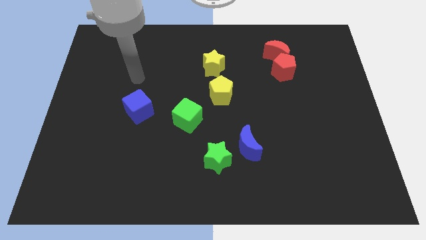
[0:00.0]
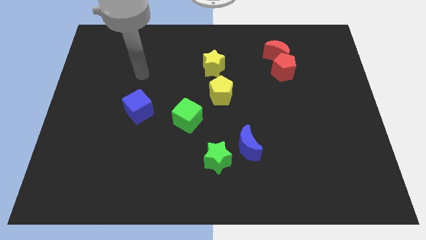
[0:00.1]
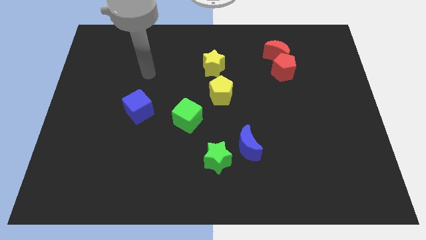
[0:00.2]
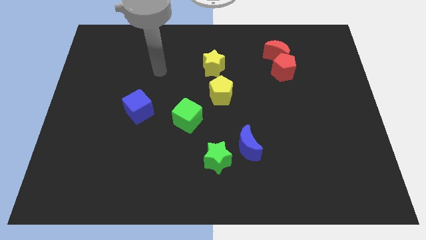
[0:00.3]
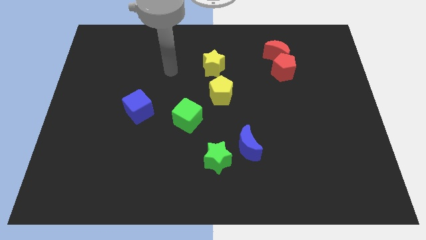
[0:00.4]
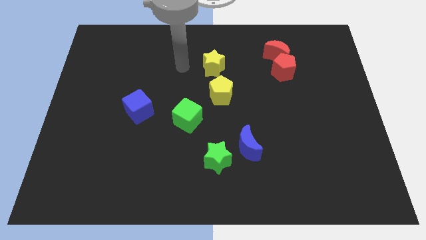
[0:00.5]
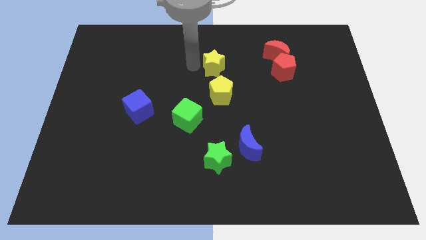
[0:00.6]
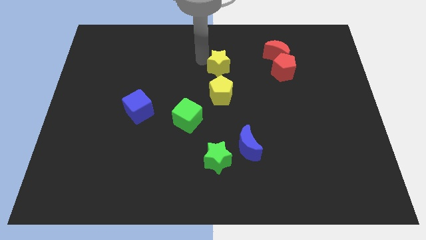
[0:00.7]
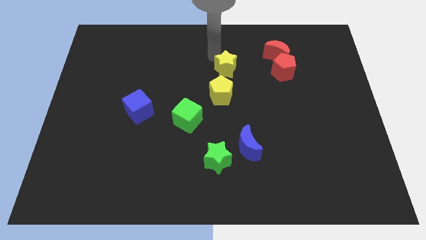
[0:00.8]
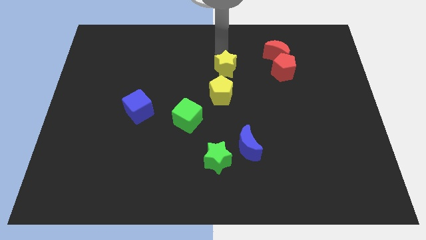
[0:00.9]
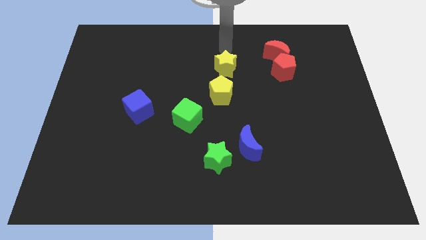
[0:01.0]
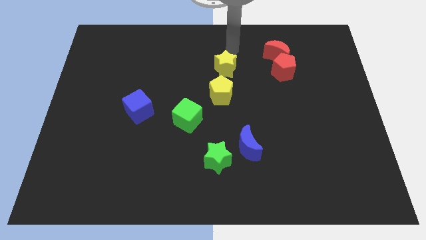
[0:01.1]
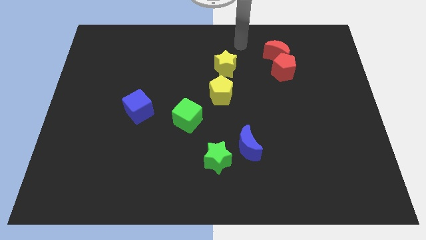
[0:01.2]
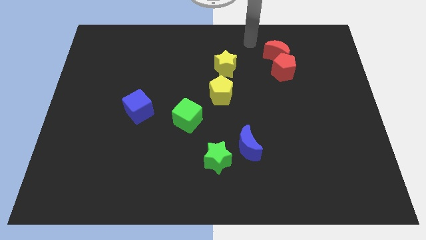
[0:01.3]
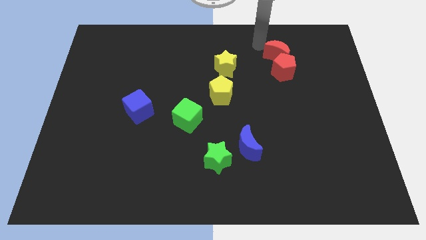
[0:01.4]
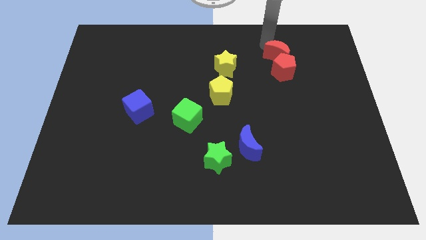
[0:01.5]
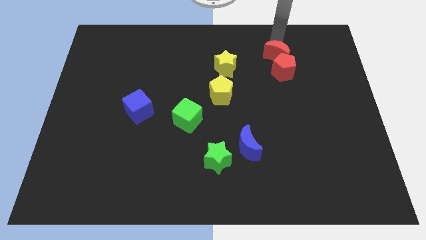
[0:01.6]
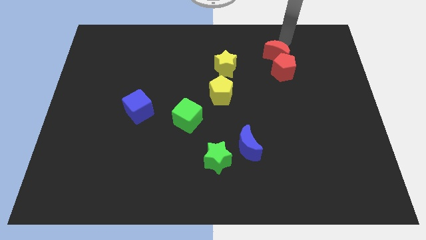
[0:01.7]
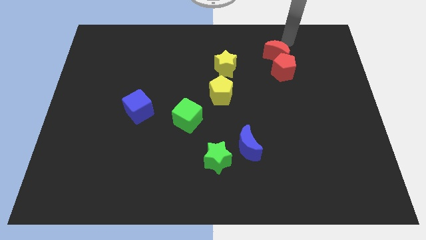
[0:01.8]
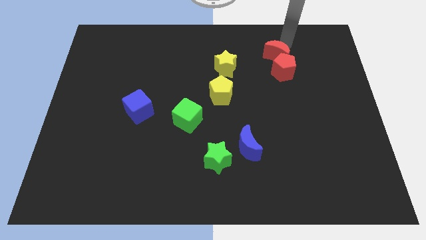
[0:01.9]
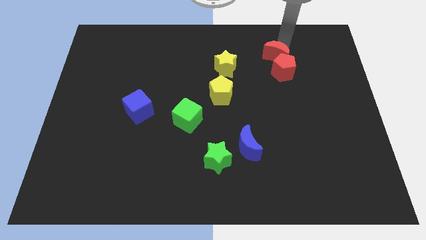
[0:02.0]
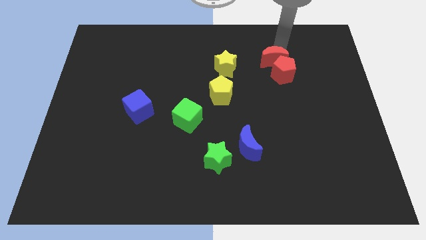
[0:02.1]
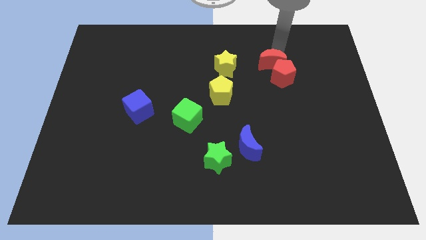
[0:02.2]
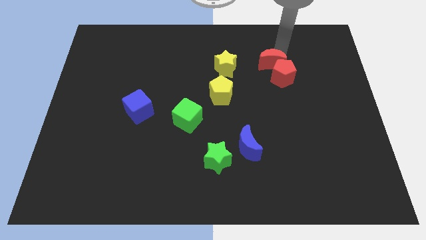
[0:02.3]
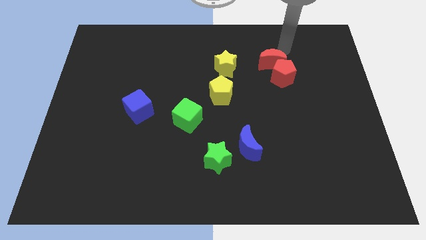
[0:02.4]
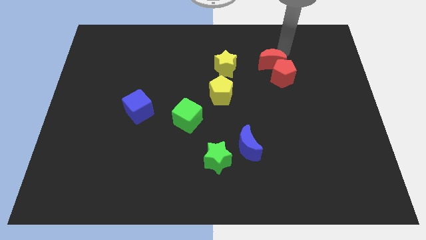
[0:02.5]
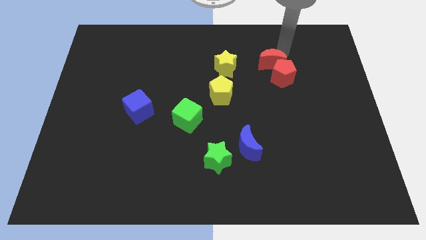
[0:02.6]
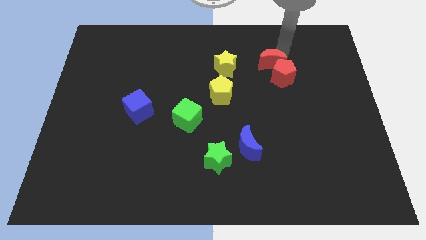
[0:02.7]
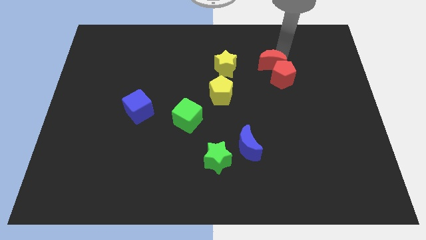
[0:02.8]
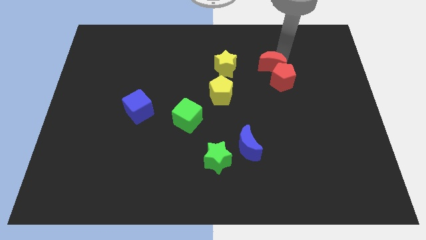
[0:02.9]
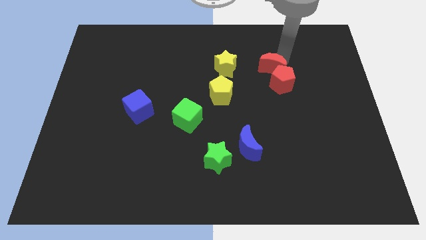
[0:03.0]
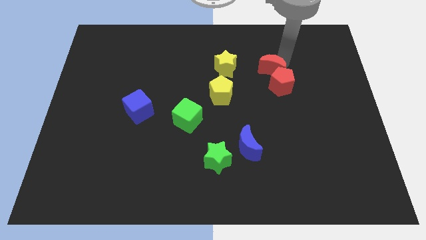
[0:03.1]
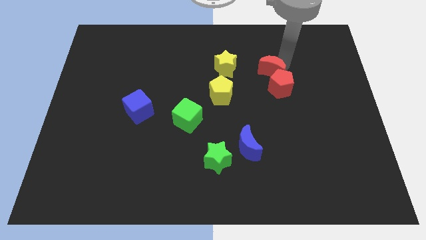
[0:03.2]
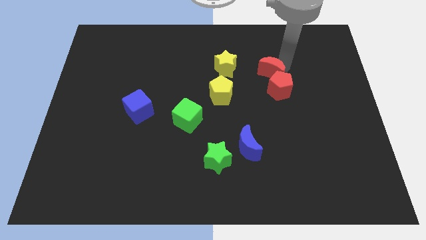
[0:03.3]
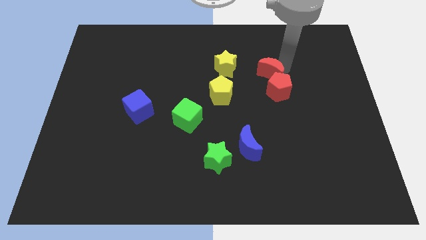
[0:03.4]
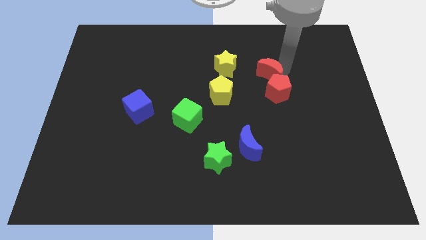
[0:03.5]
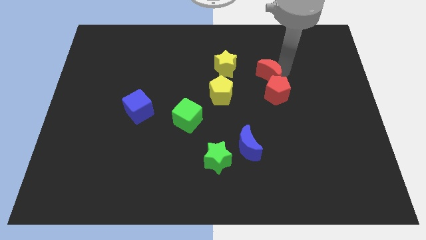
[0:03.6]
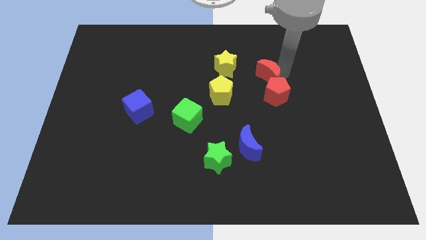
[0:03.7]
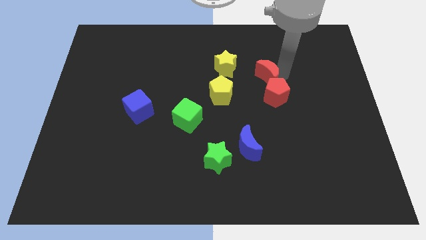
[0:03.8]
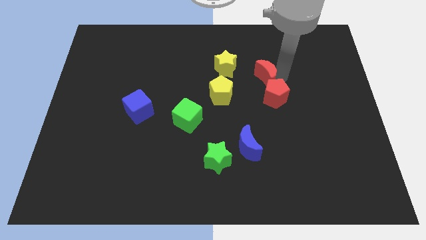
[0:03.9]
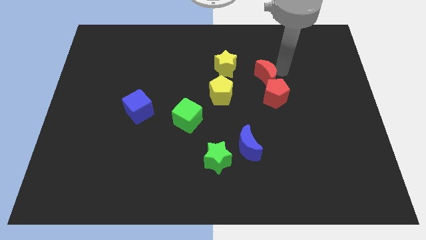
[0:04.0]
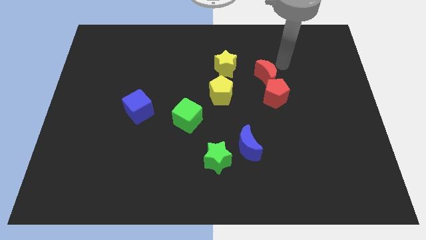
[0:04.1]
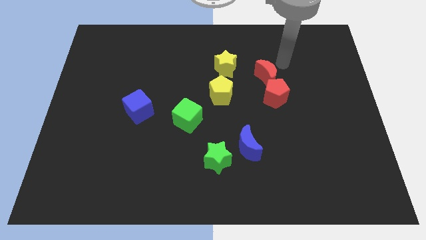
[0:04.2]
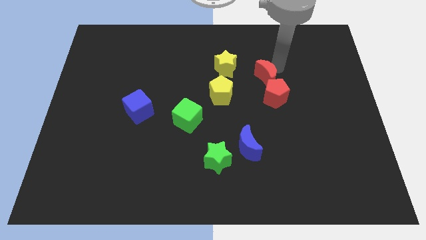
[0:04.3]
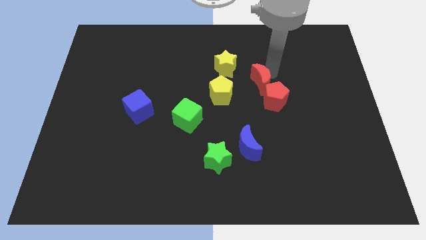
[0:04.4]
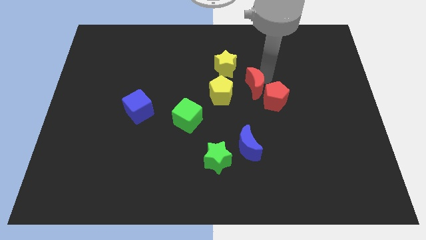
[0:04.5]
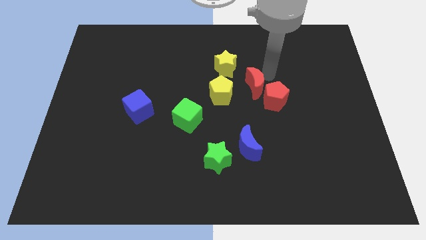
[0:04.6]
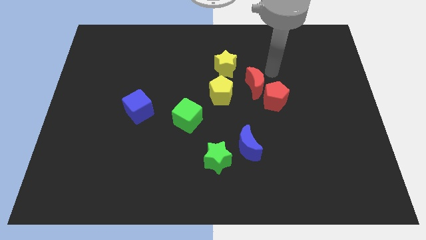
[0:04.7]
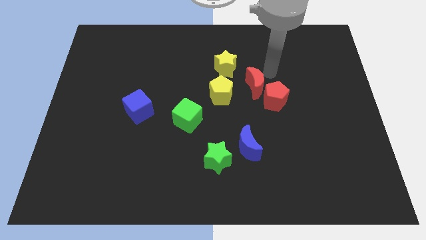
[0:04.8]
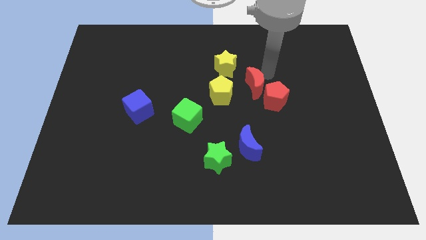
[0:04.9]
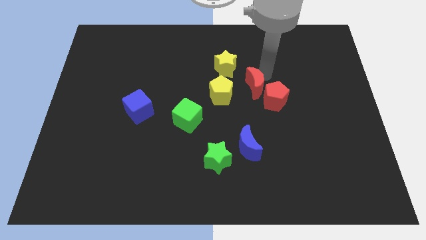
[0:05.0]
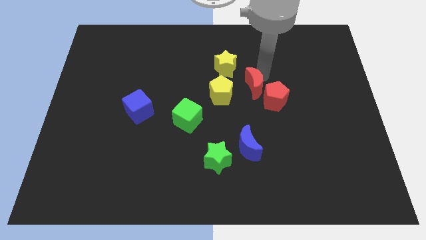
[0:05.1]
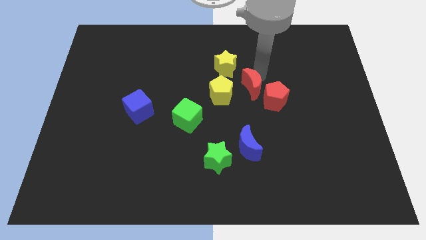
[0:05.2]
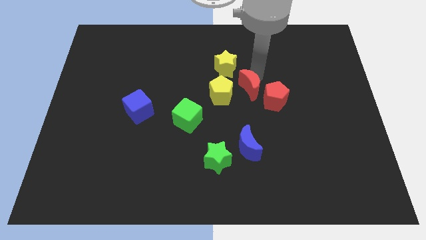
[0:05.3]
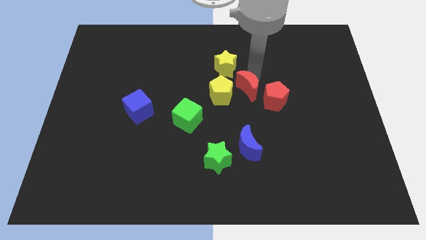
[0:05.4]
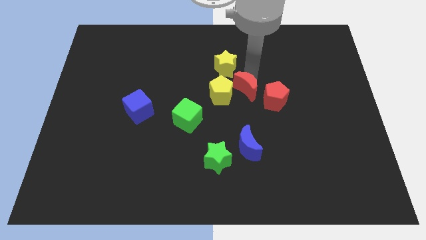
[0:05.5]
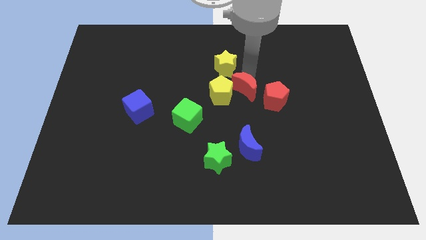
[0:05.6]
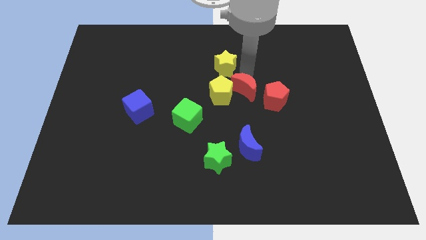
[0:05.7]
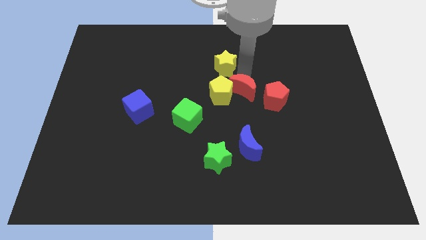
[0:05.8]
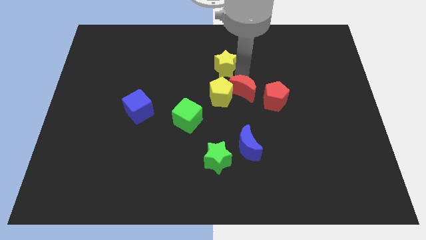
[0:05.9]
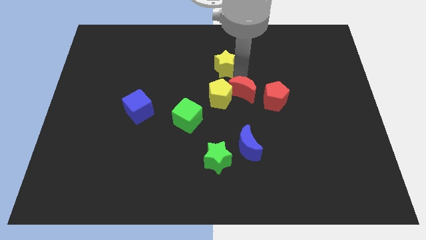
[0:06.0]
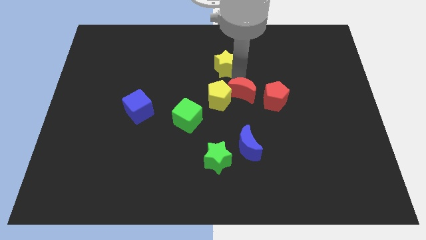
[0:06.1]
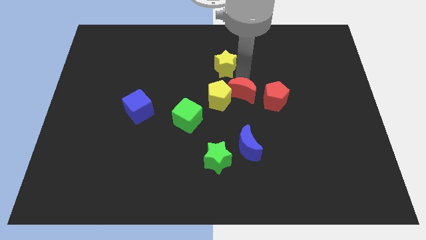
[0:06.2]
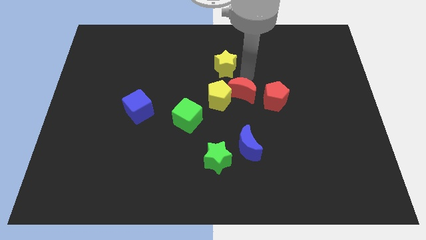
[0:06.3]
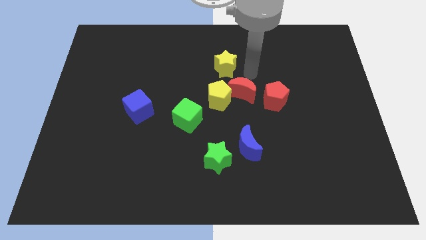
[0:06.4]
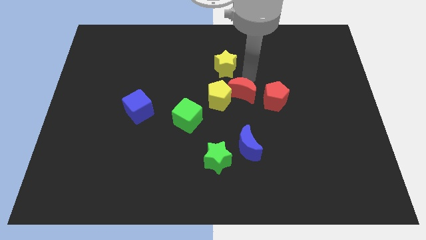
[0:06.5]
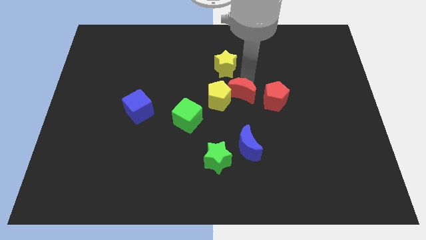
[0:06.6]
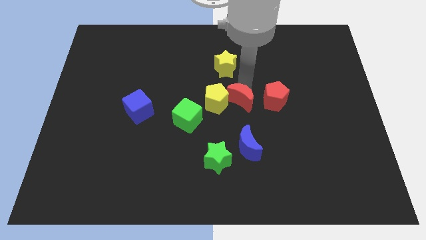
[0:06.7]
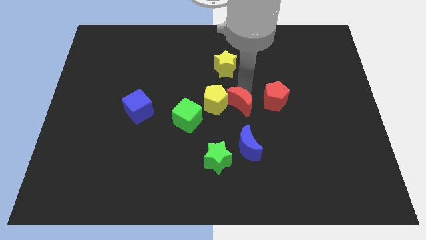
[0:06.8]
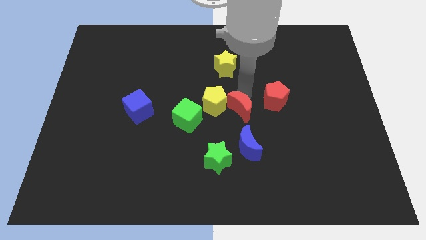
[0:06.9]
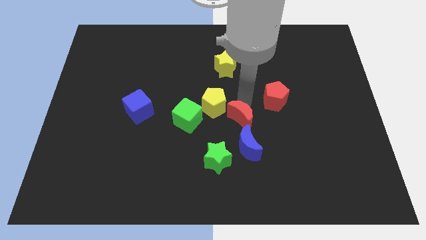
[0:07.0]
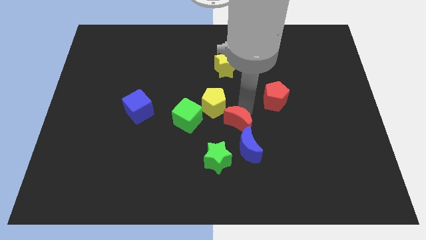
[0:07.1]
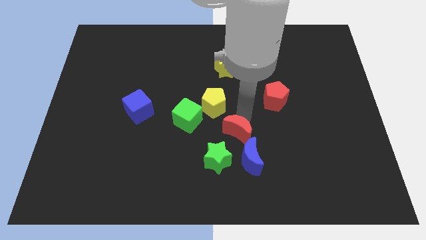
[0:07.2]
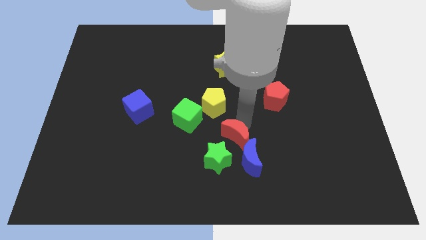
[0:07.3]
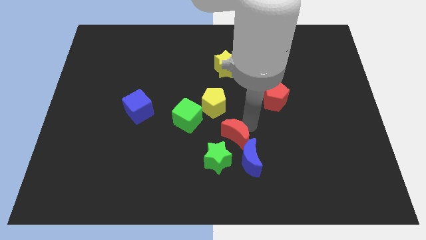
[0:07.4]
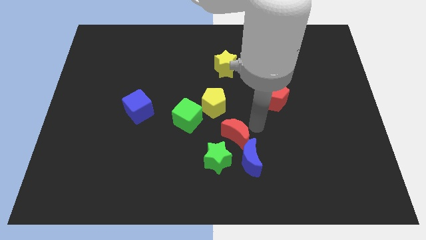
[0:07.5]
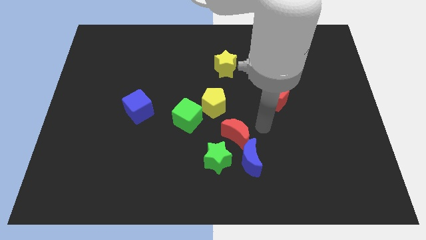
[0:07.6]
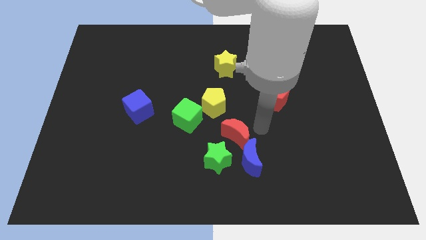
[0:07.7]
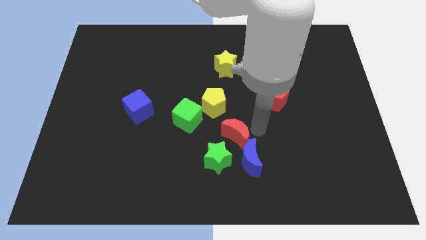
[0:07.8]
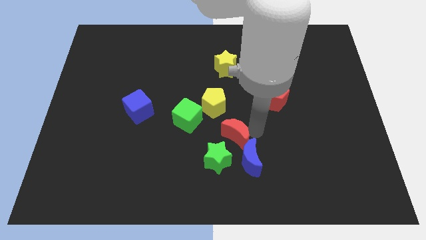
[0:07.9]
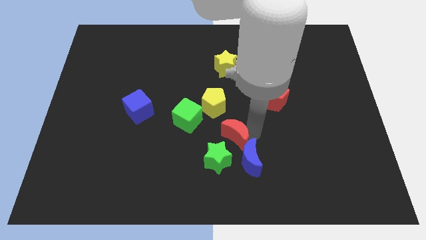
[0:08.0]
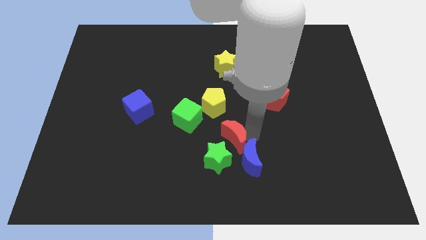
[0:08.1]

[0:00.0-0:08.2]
put the red moon below the yellow pentagon
